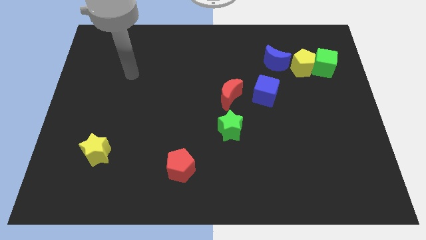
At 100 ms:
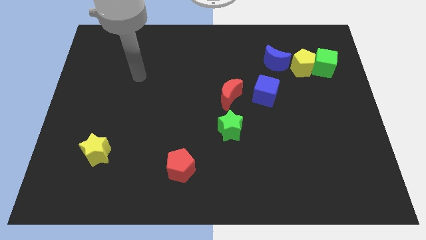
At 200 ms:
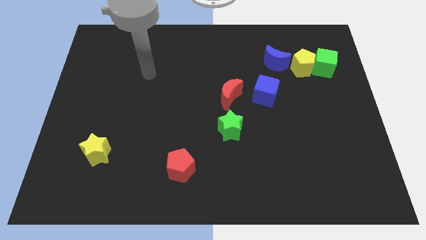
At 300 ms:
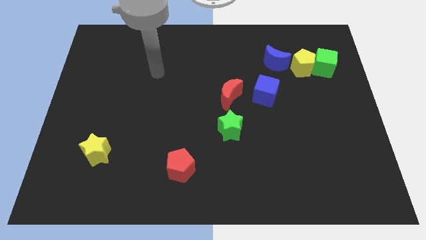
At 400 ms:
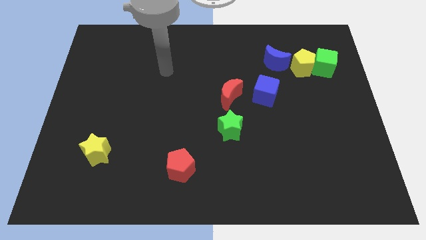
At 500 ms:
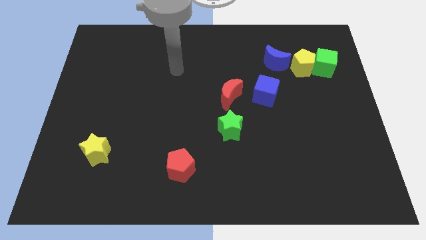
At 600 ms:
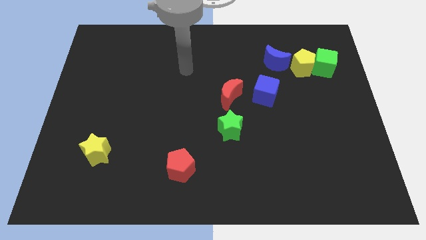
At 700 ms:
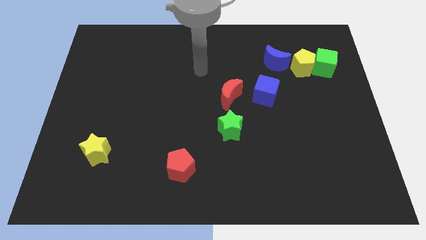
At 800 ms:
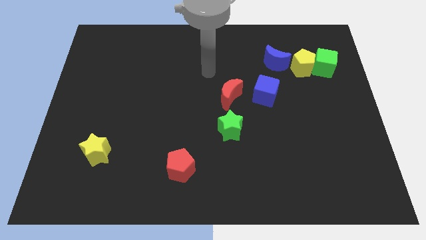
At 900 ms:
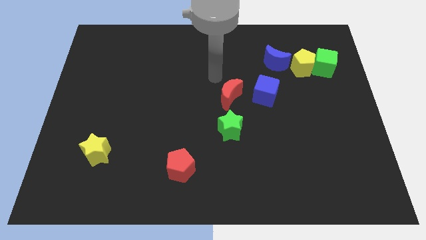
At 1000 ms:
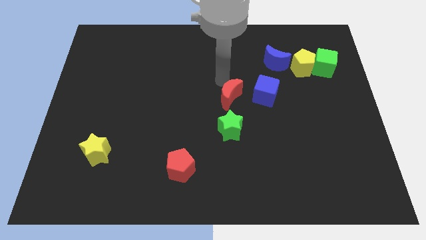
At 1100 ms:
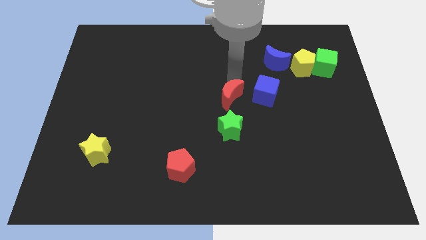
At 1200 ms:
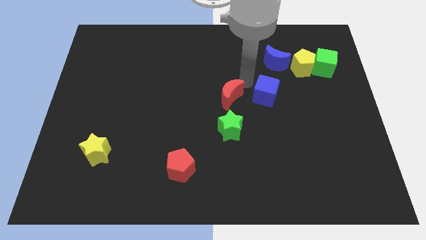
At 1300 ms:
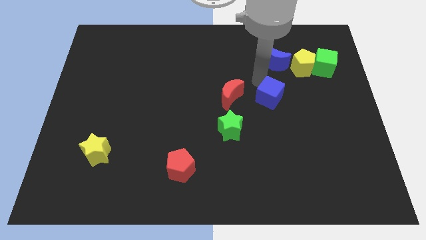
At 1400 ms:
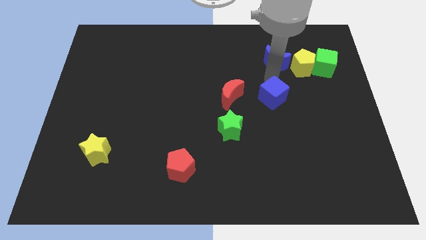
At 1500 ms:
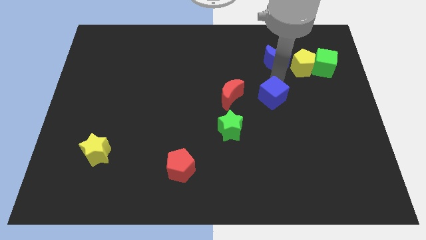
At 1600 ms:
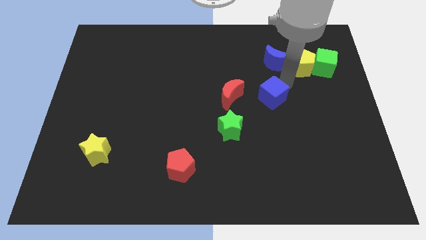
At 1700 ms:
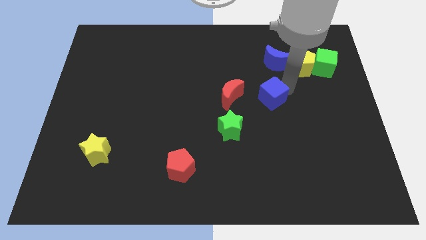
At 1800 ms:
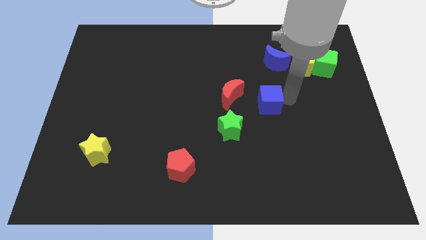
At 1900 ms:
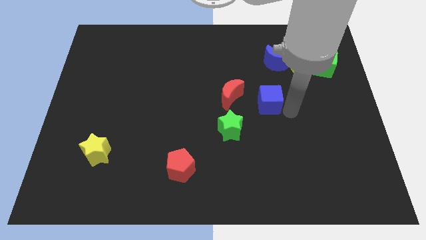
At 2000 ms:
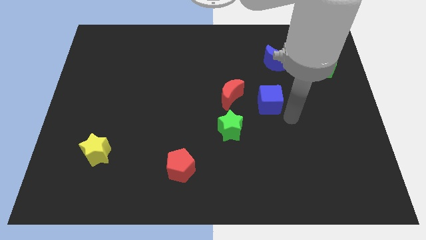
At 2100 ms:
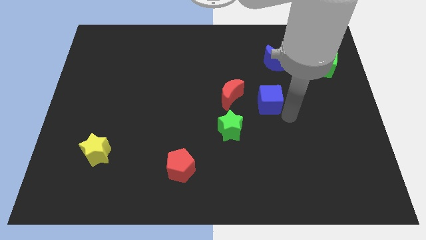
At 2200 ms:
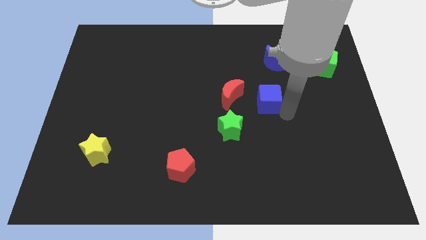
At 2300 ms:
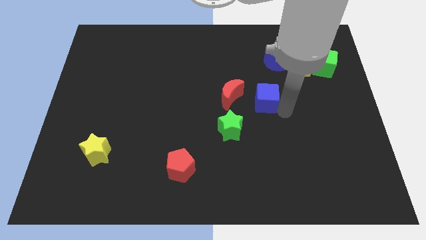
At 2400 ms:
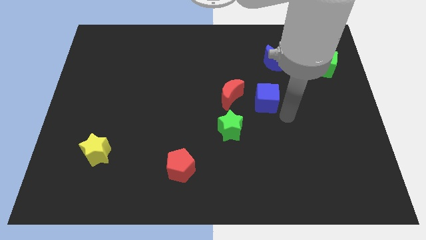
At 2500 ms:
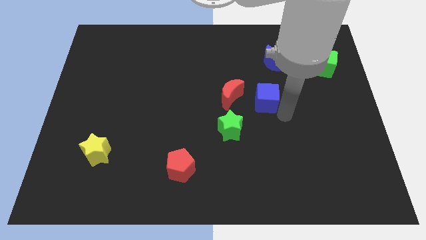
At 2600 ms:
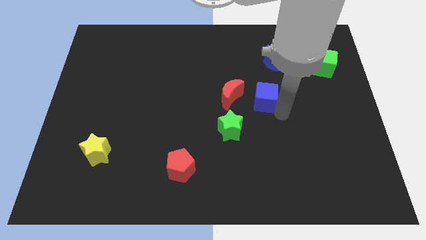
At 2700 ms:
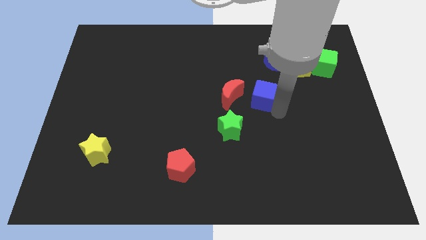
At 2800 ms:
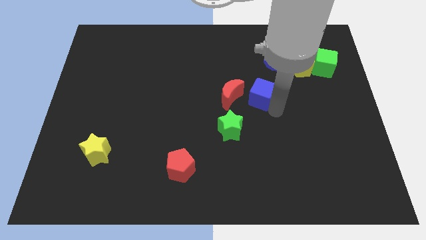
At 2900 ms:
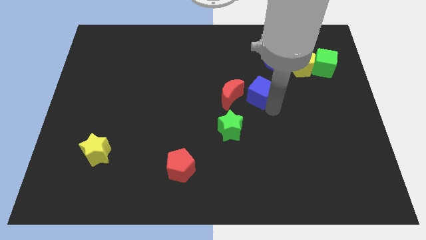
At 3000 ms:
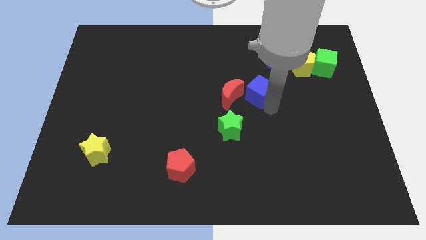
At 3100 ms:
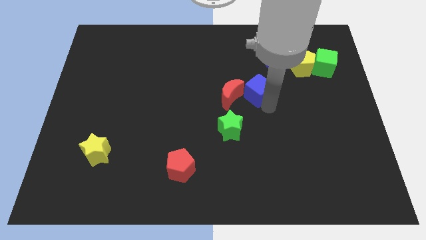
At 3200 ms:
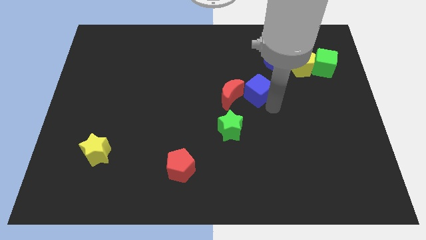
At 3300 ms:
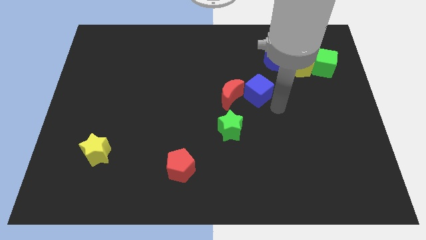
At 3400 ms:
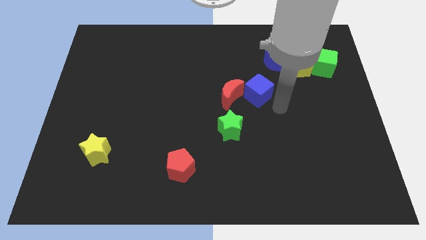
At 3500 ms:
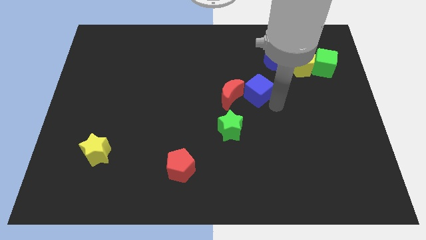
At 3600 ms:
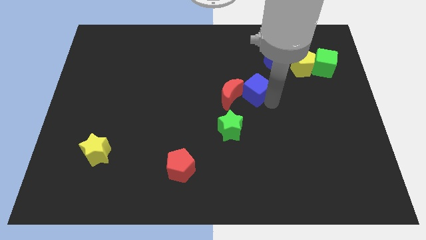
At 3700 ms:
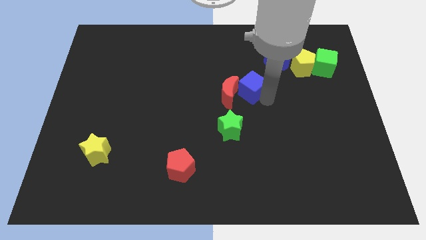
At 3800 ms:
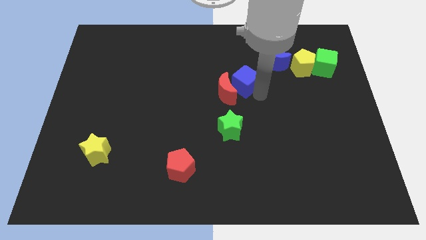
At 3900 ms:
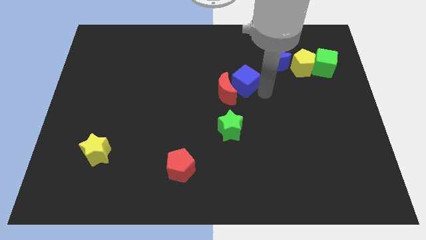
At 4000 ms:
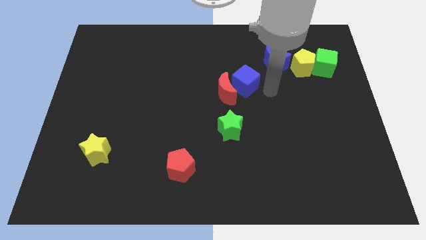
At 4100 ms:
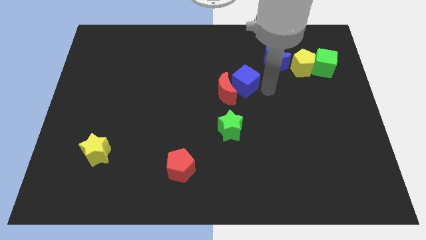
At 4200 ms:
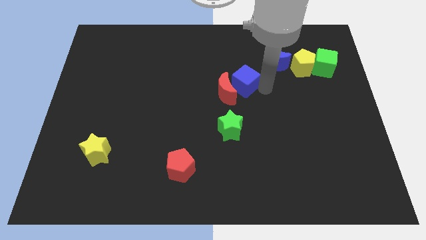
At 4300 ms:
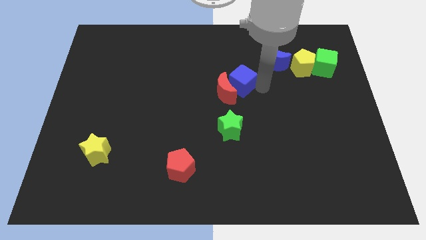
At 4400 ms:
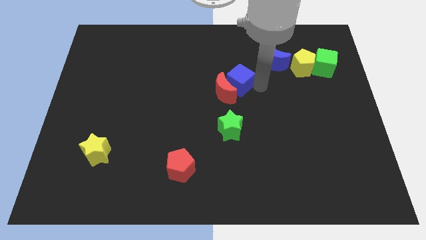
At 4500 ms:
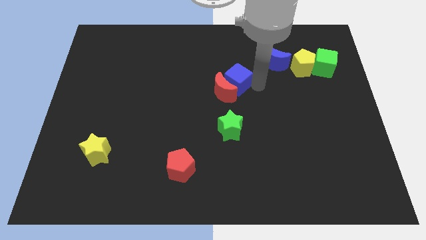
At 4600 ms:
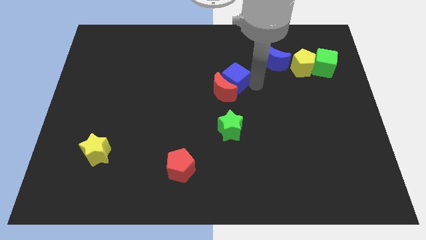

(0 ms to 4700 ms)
slightly push the blue cube to the left

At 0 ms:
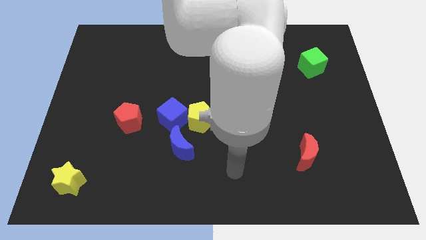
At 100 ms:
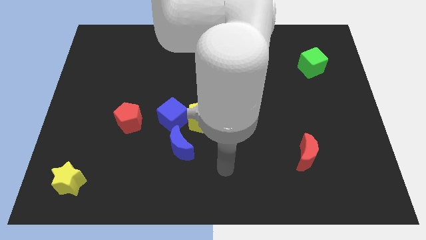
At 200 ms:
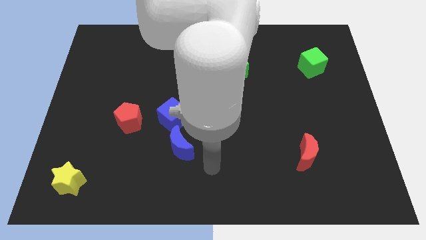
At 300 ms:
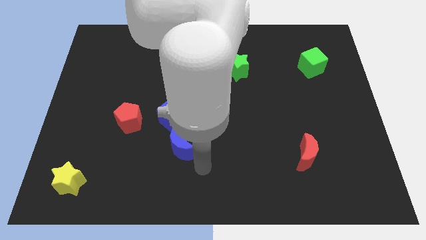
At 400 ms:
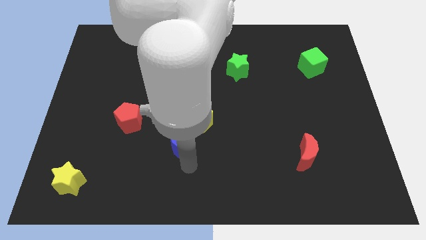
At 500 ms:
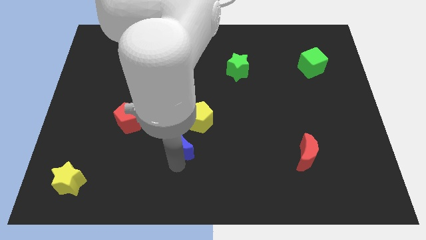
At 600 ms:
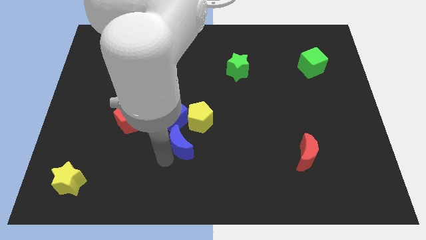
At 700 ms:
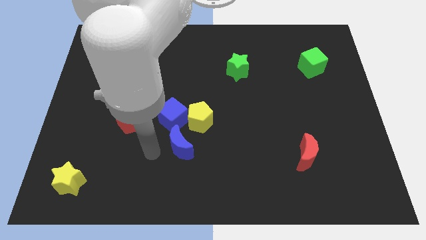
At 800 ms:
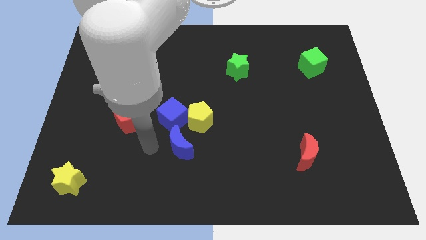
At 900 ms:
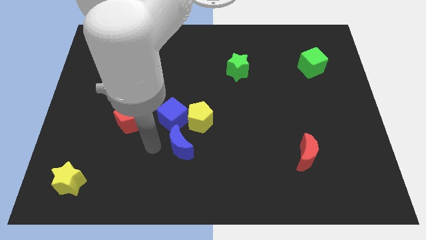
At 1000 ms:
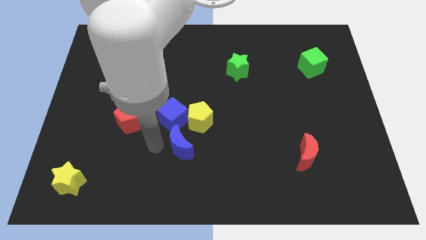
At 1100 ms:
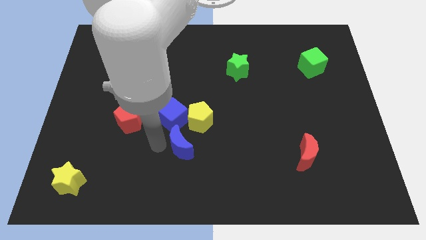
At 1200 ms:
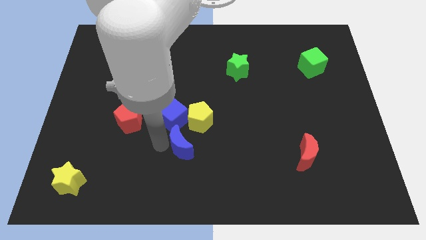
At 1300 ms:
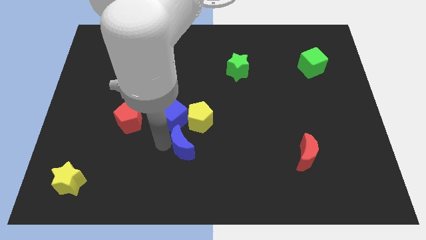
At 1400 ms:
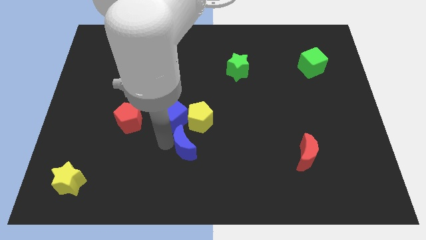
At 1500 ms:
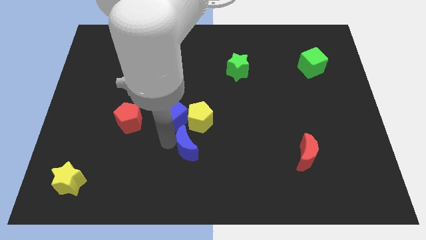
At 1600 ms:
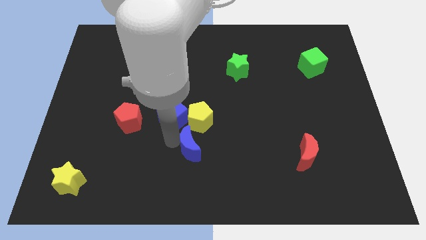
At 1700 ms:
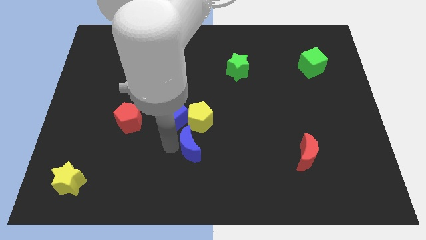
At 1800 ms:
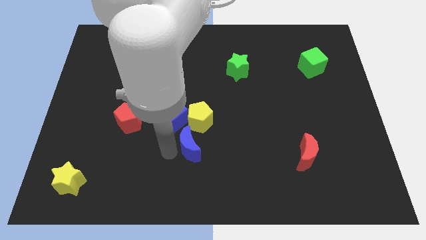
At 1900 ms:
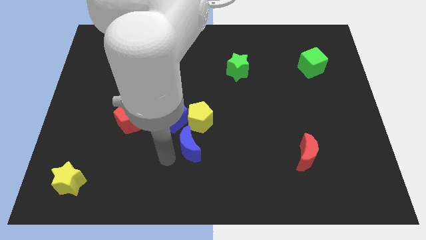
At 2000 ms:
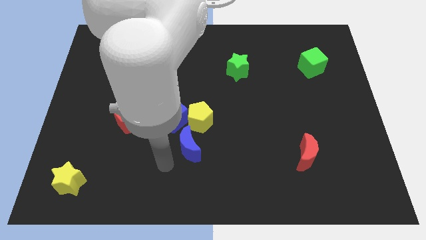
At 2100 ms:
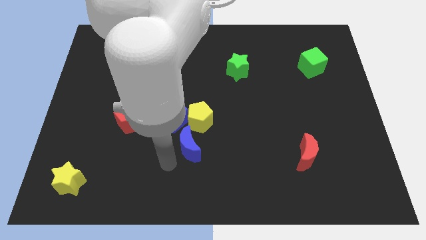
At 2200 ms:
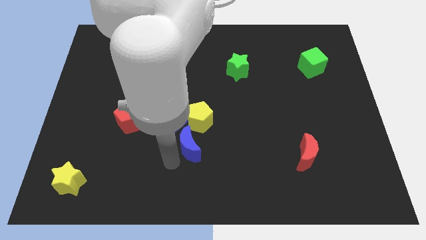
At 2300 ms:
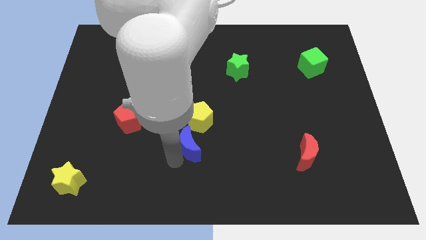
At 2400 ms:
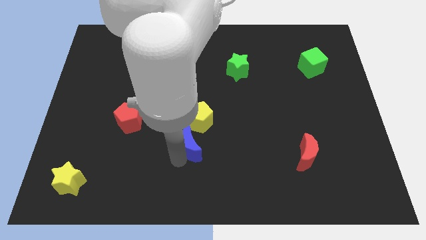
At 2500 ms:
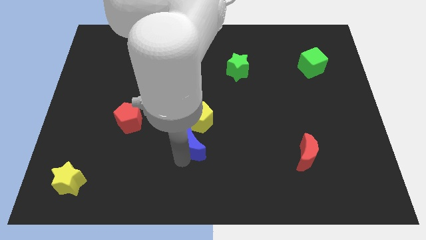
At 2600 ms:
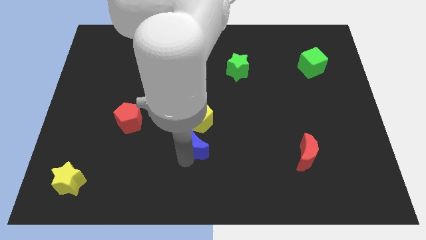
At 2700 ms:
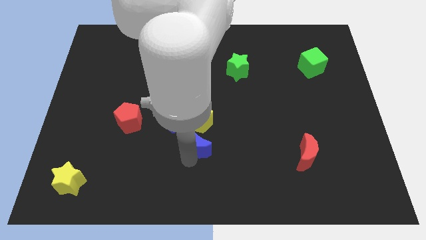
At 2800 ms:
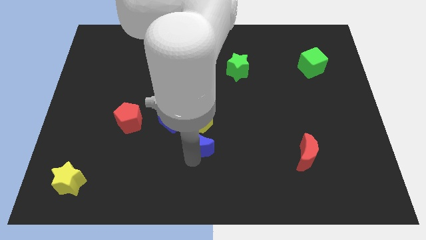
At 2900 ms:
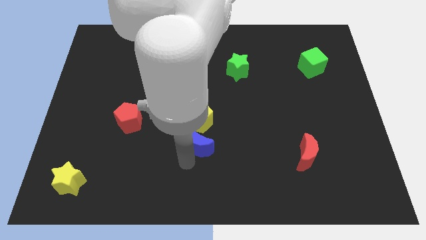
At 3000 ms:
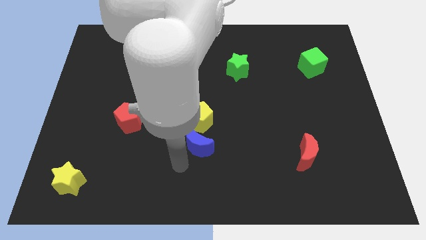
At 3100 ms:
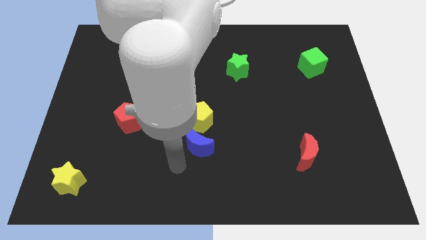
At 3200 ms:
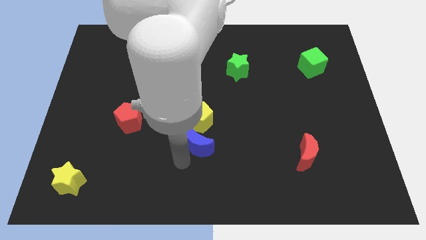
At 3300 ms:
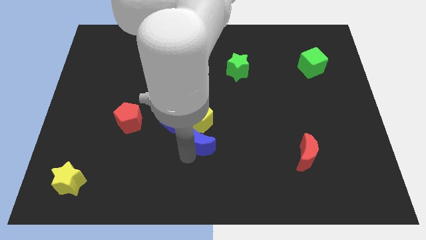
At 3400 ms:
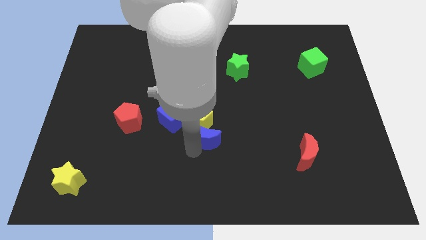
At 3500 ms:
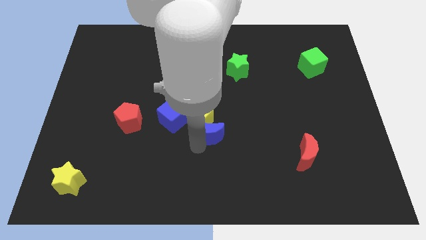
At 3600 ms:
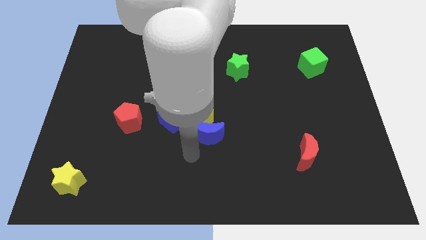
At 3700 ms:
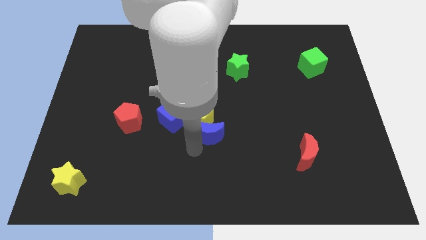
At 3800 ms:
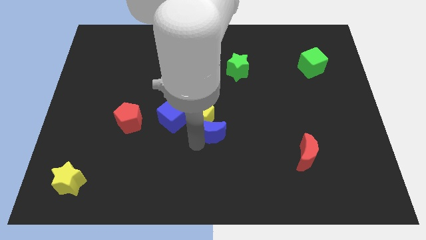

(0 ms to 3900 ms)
move the blue moon diagonally upwards and right a little bit
